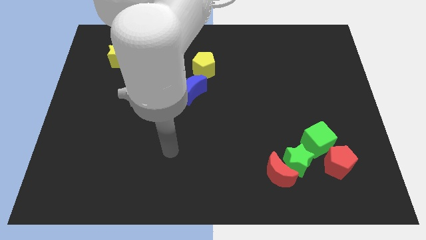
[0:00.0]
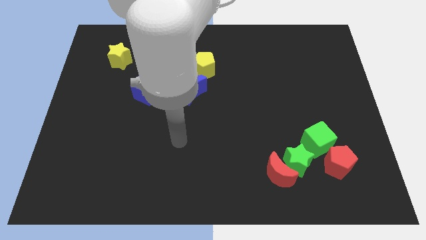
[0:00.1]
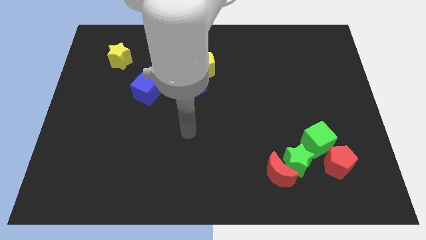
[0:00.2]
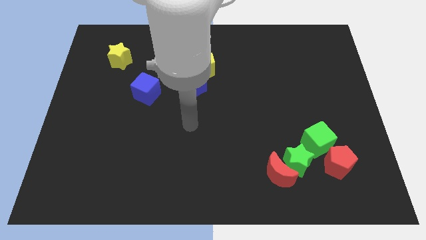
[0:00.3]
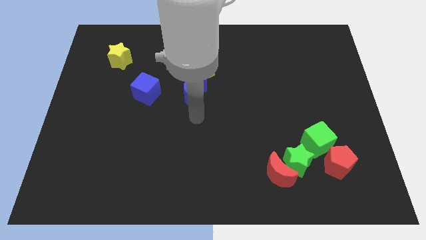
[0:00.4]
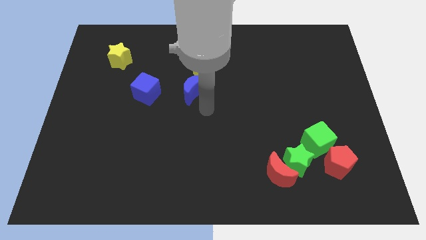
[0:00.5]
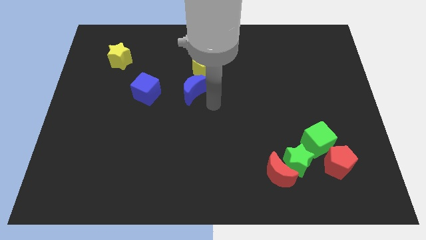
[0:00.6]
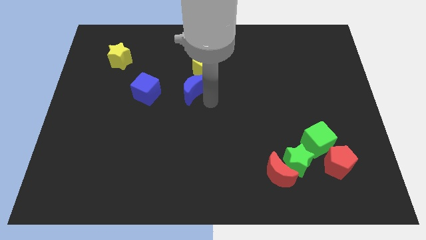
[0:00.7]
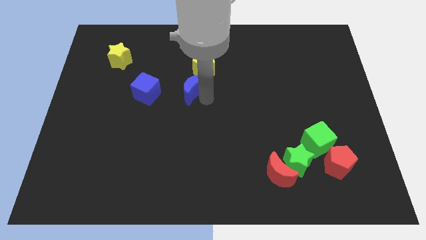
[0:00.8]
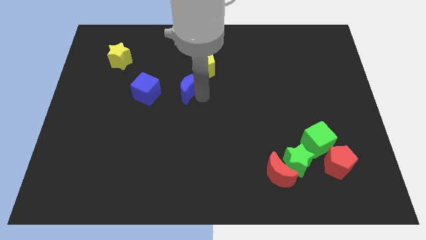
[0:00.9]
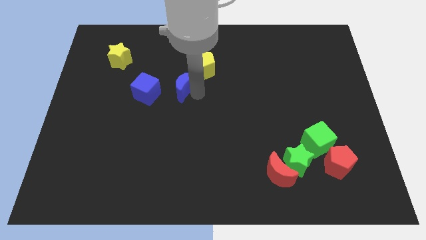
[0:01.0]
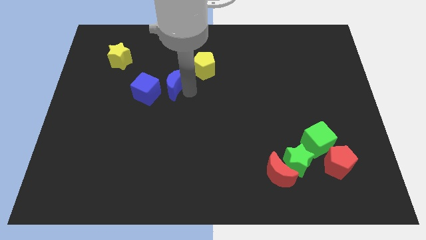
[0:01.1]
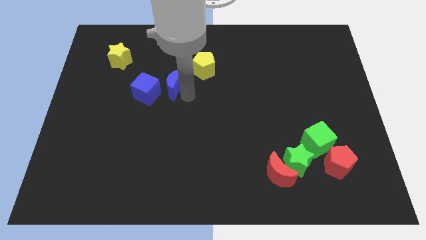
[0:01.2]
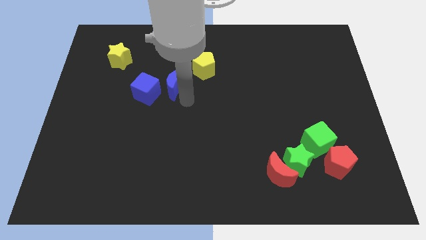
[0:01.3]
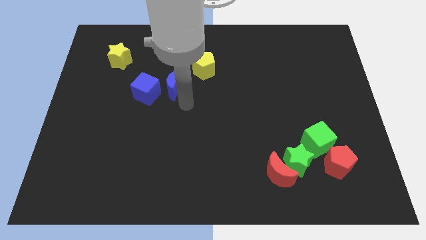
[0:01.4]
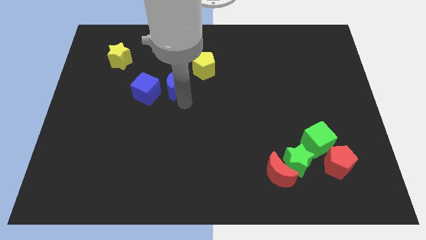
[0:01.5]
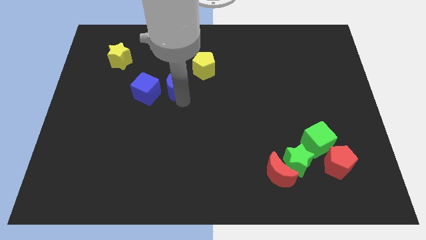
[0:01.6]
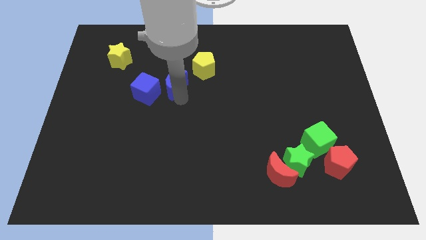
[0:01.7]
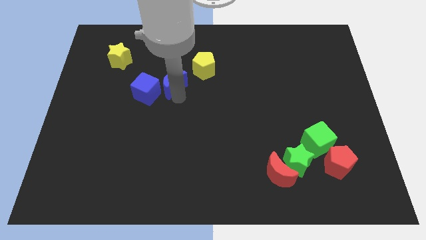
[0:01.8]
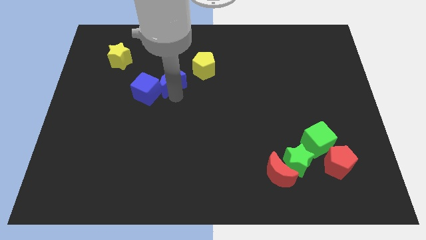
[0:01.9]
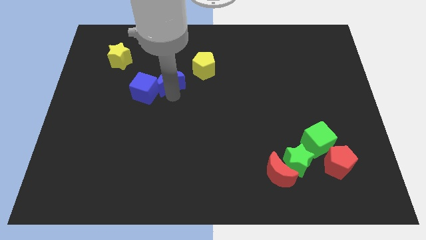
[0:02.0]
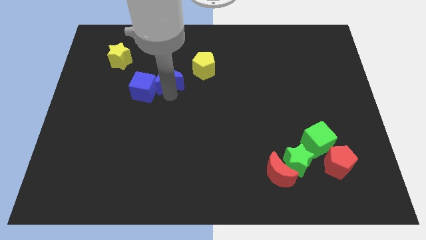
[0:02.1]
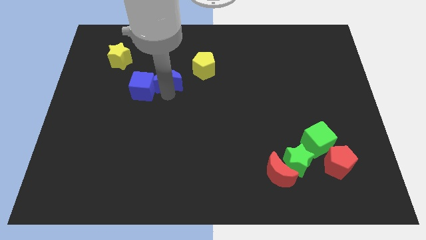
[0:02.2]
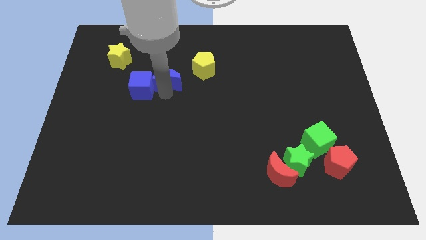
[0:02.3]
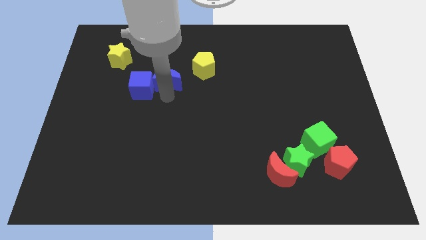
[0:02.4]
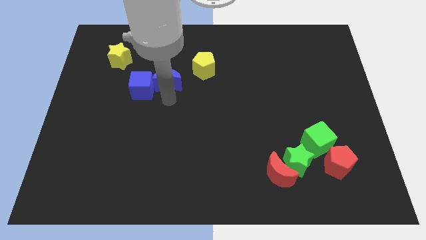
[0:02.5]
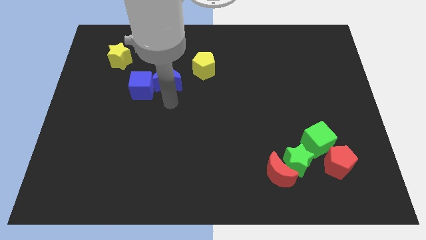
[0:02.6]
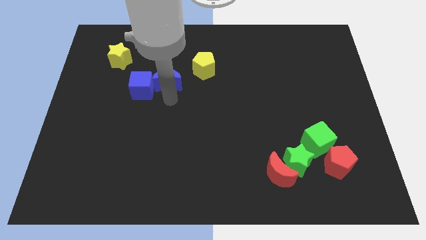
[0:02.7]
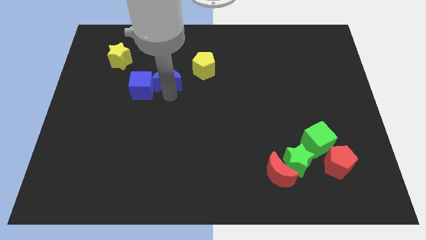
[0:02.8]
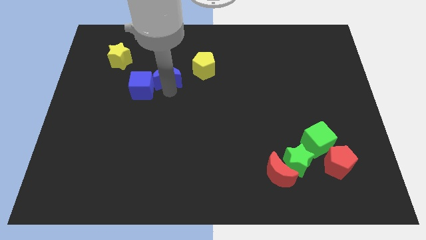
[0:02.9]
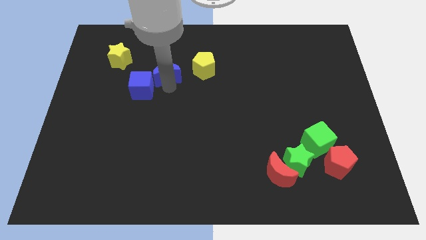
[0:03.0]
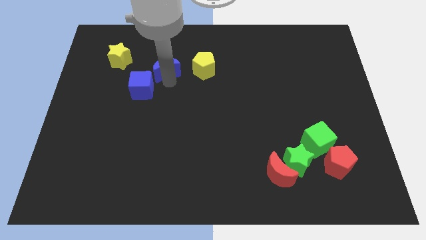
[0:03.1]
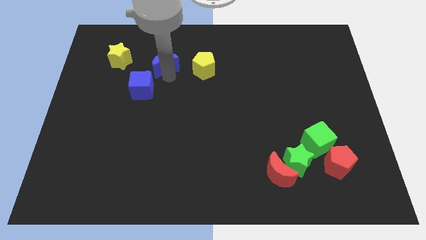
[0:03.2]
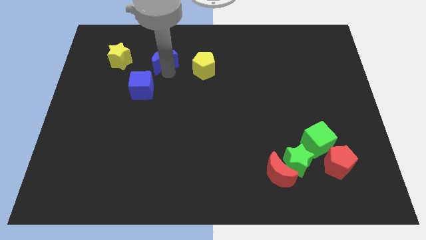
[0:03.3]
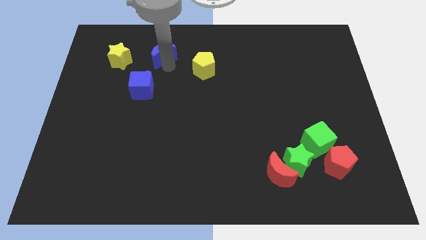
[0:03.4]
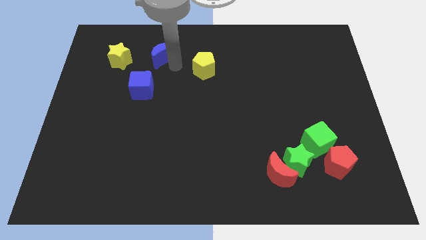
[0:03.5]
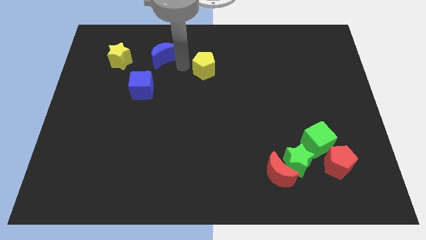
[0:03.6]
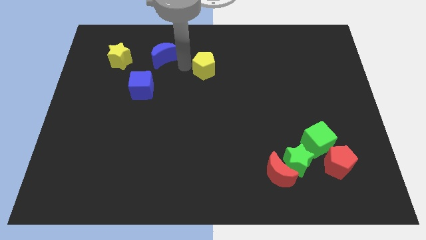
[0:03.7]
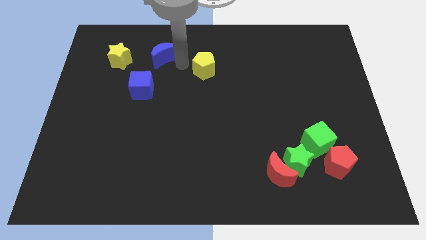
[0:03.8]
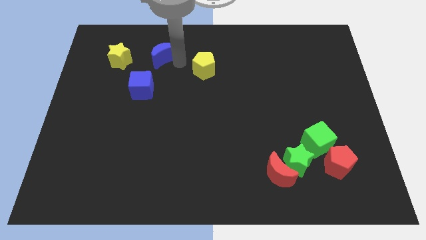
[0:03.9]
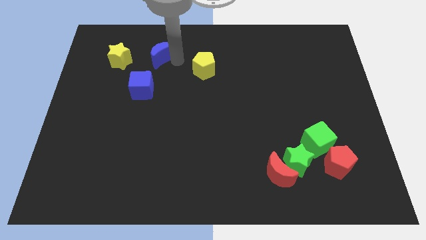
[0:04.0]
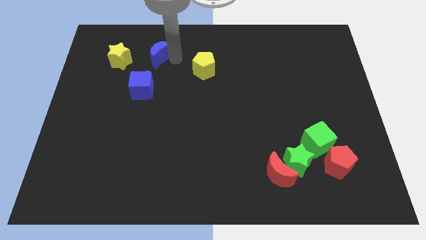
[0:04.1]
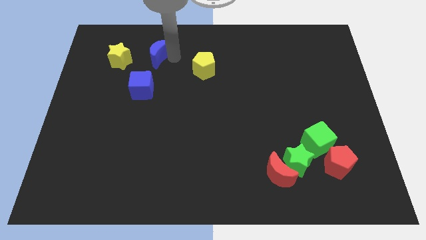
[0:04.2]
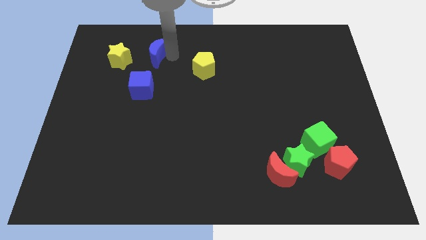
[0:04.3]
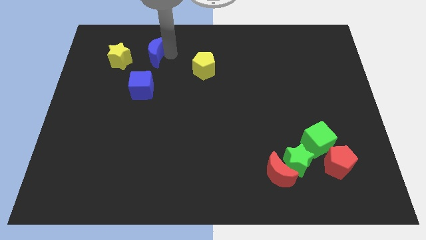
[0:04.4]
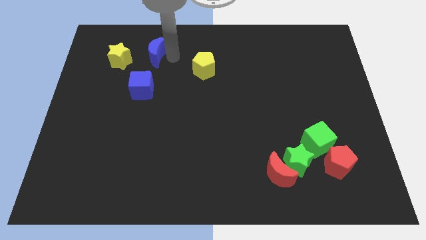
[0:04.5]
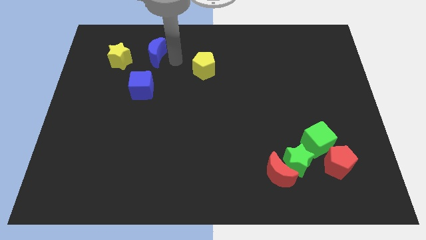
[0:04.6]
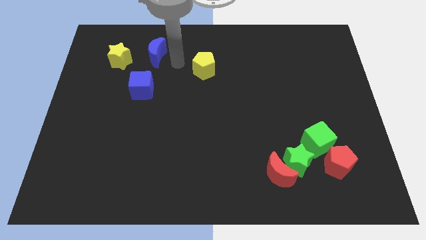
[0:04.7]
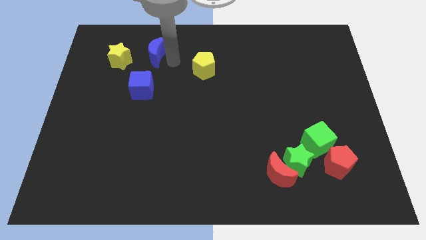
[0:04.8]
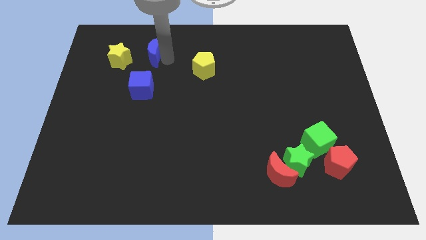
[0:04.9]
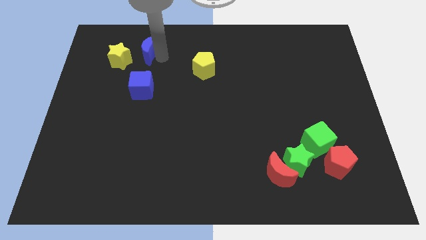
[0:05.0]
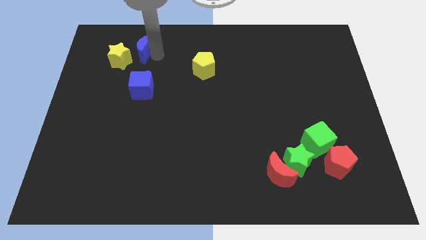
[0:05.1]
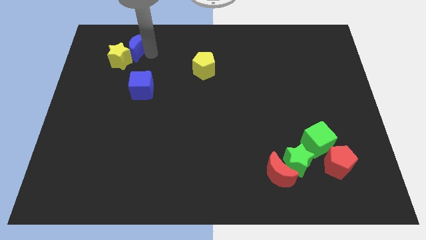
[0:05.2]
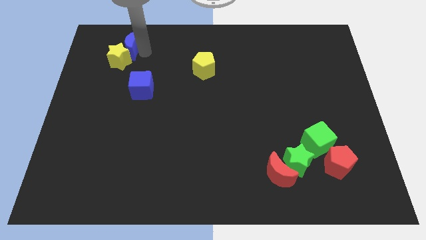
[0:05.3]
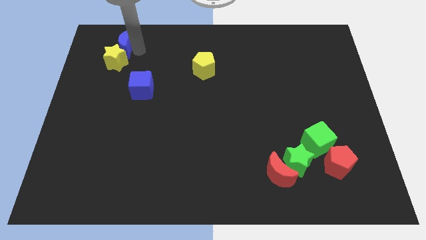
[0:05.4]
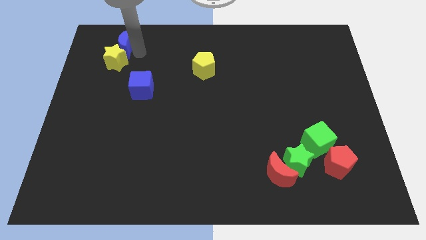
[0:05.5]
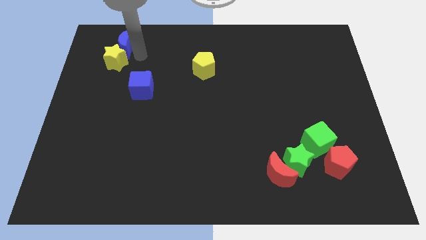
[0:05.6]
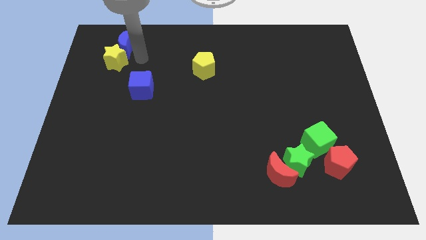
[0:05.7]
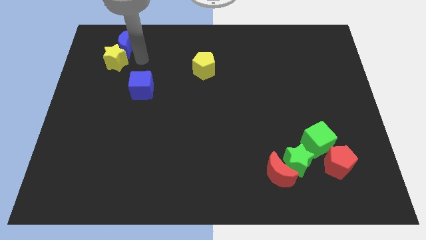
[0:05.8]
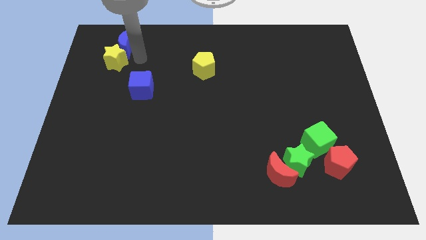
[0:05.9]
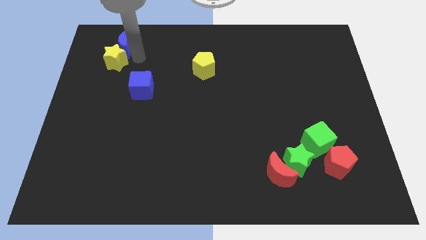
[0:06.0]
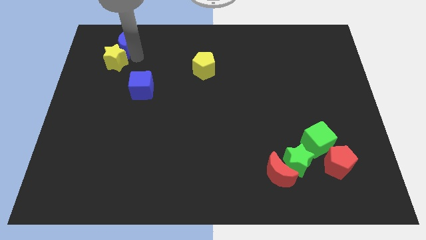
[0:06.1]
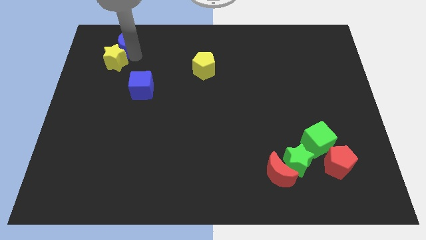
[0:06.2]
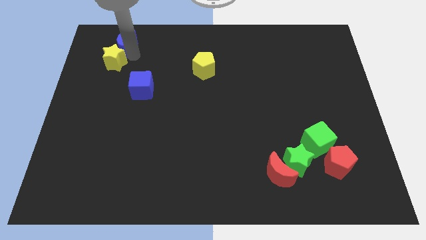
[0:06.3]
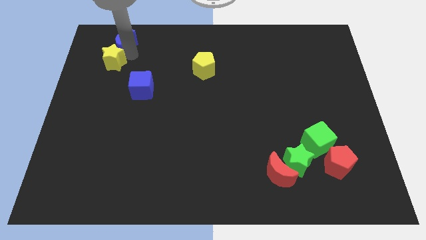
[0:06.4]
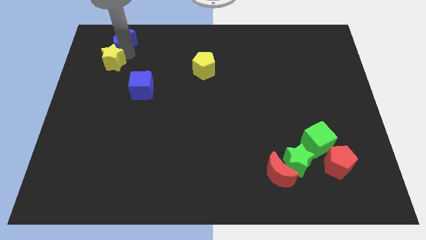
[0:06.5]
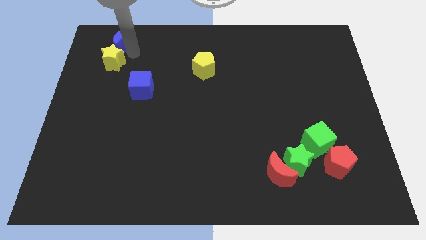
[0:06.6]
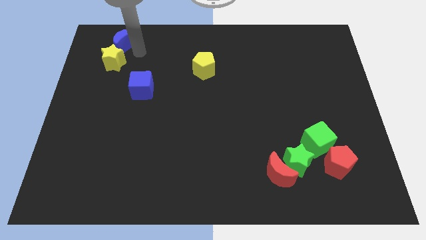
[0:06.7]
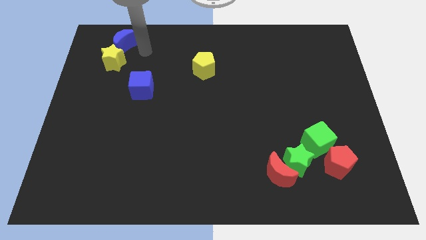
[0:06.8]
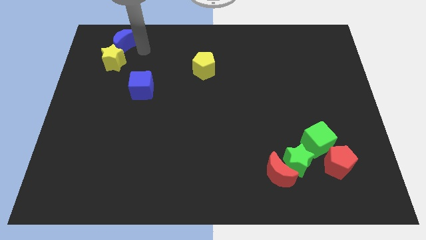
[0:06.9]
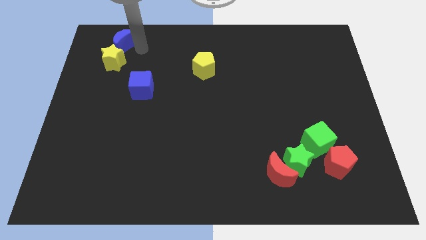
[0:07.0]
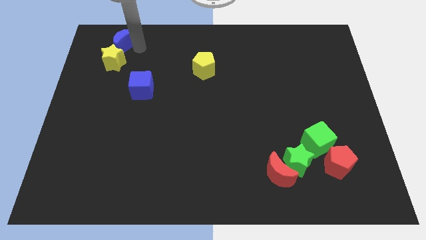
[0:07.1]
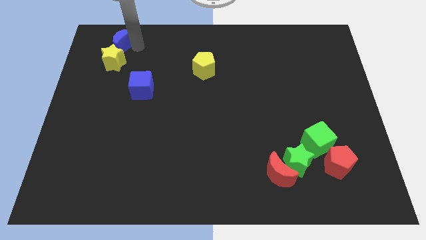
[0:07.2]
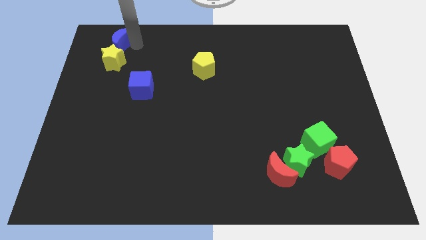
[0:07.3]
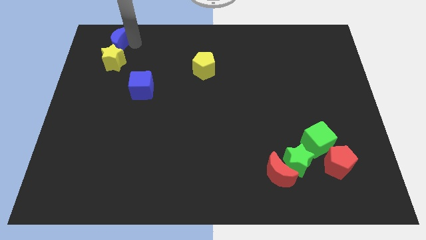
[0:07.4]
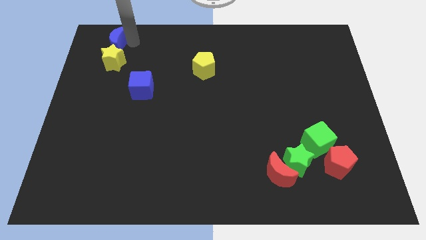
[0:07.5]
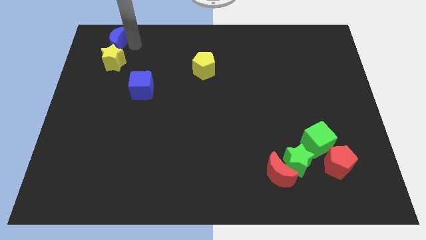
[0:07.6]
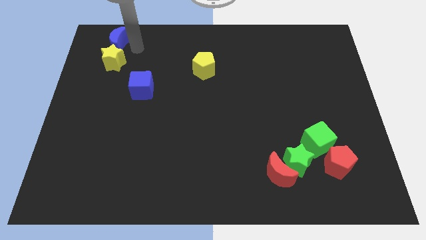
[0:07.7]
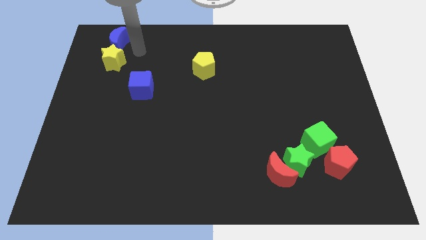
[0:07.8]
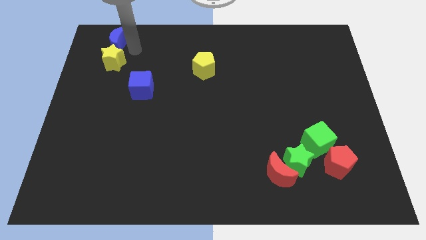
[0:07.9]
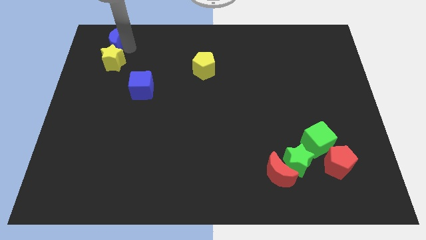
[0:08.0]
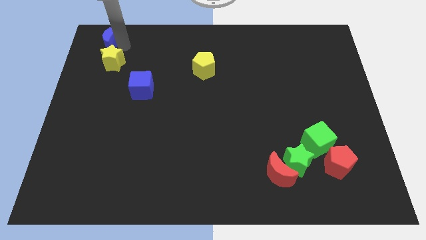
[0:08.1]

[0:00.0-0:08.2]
push the blue moon to the top left
